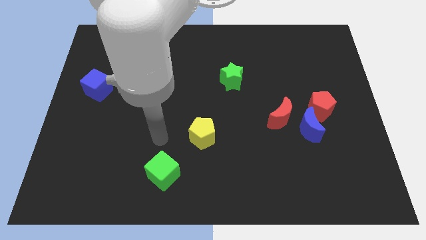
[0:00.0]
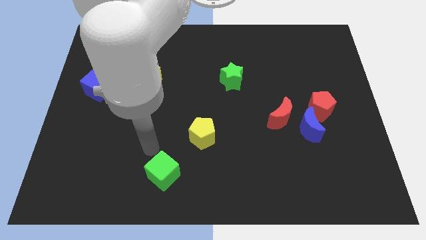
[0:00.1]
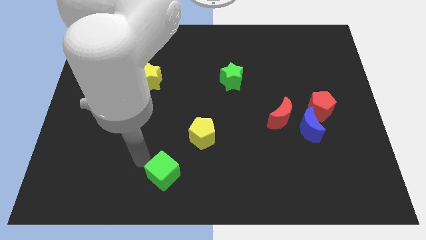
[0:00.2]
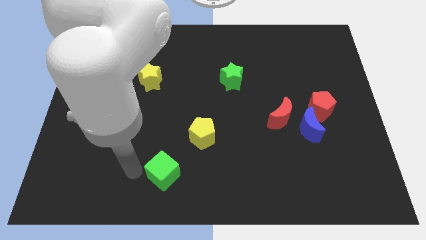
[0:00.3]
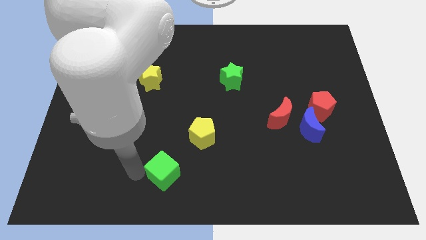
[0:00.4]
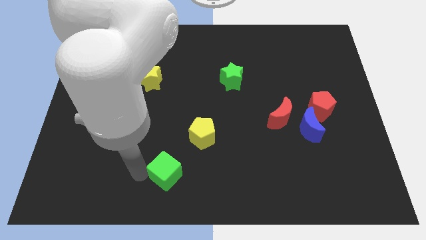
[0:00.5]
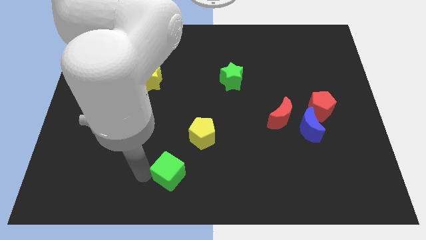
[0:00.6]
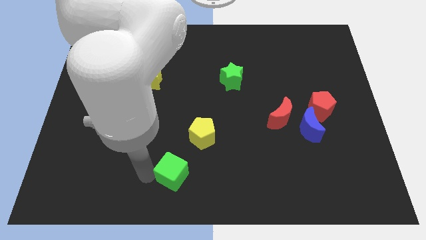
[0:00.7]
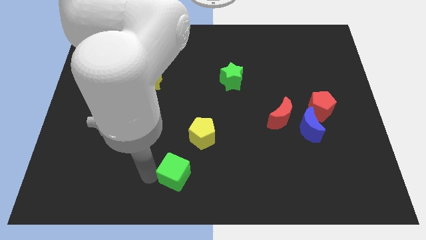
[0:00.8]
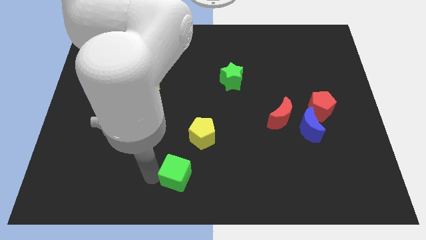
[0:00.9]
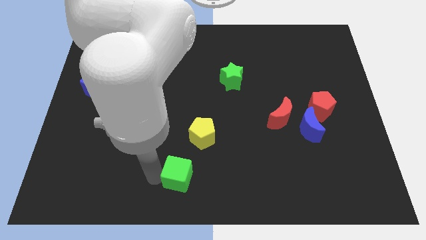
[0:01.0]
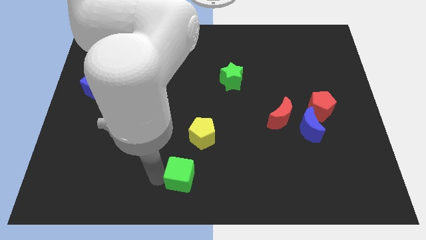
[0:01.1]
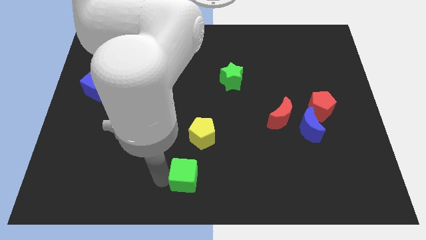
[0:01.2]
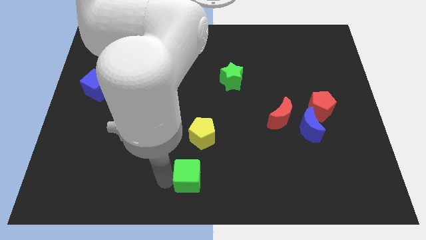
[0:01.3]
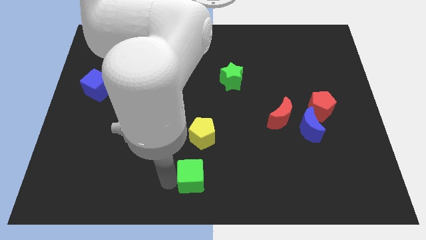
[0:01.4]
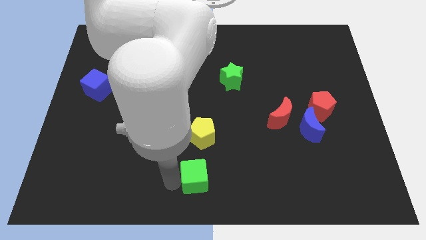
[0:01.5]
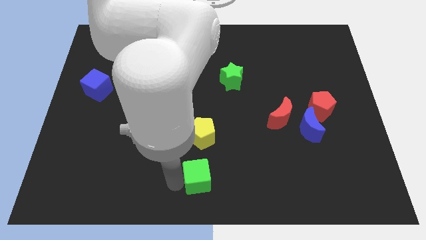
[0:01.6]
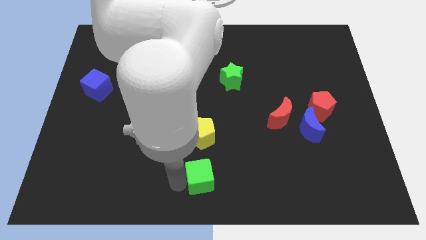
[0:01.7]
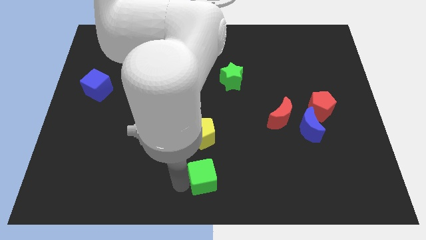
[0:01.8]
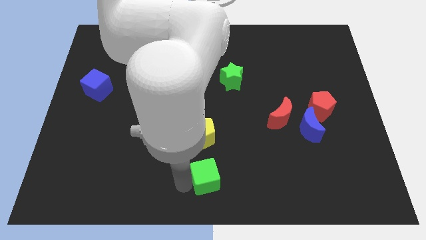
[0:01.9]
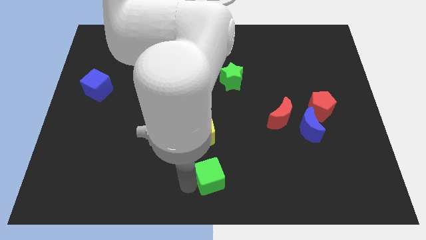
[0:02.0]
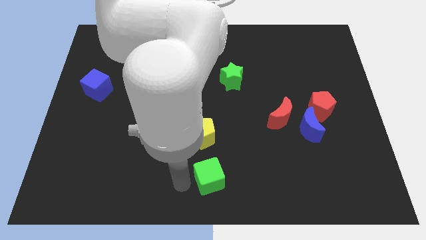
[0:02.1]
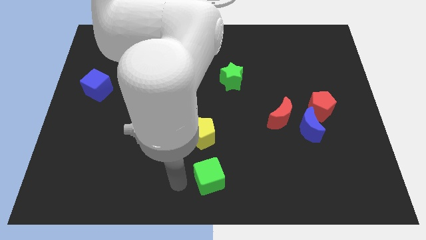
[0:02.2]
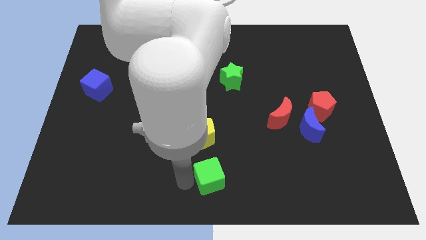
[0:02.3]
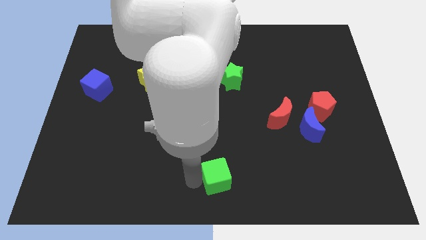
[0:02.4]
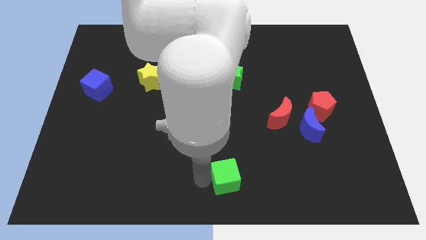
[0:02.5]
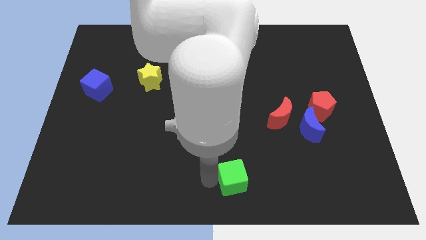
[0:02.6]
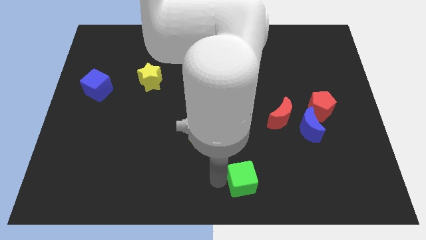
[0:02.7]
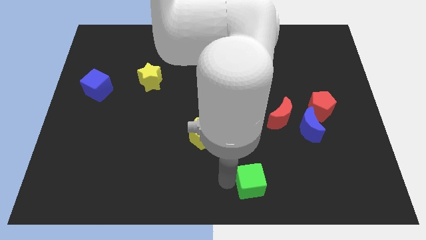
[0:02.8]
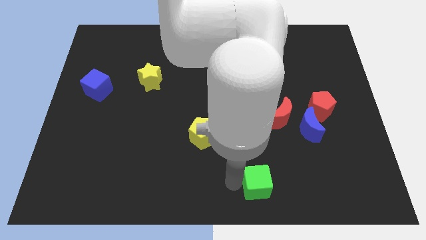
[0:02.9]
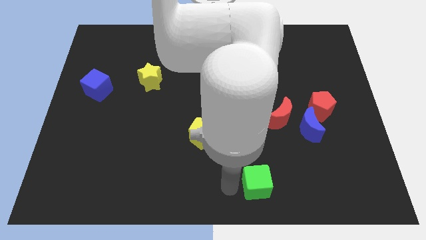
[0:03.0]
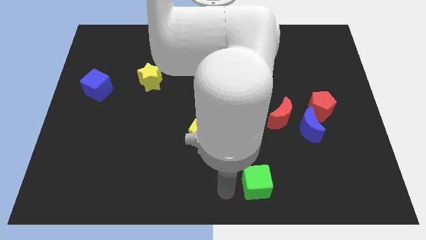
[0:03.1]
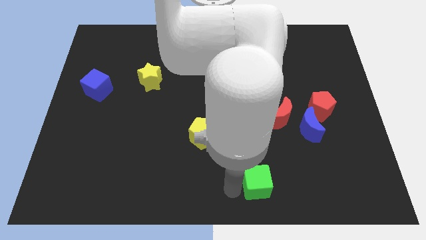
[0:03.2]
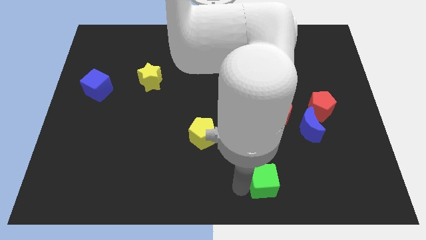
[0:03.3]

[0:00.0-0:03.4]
move the green cube to the right

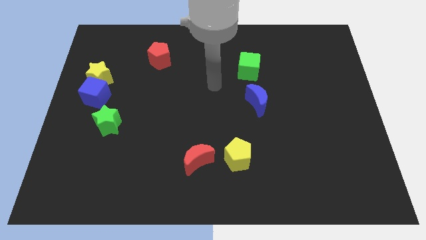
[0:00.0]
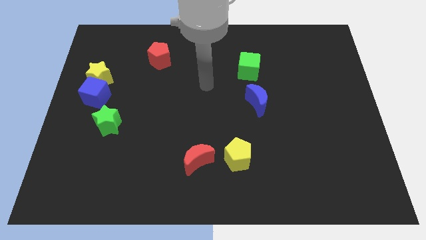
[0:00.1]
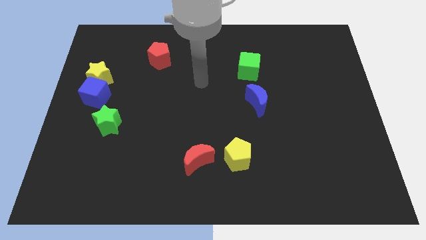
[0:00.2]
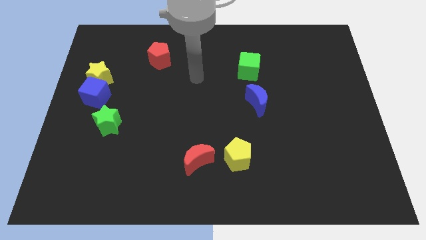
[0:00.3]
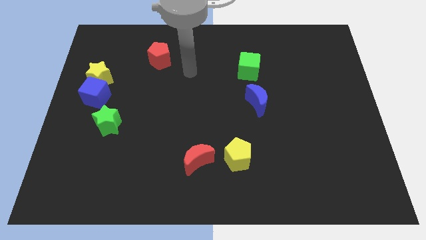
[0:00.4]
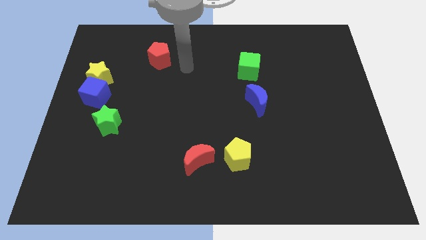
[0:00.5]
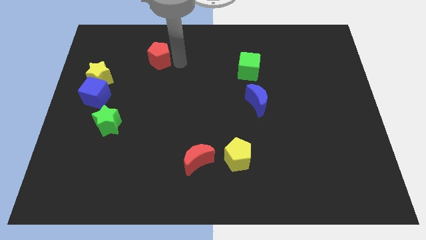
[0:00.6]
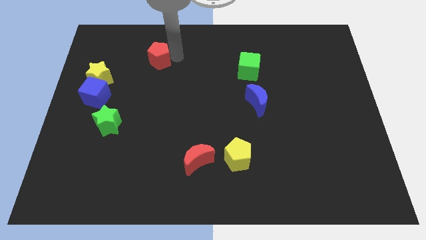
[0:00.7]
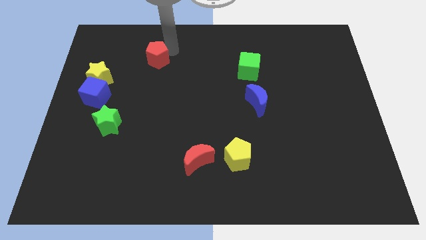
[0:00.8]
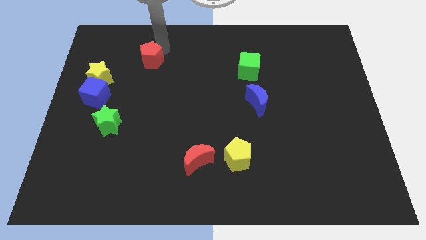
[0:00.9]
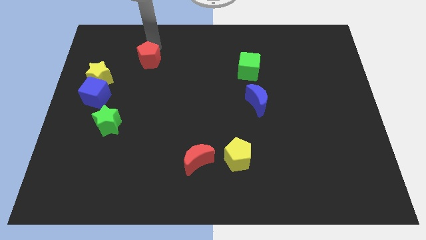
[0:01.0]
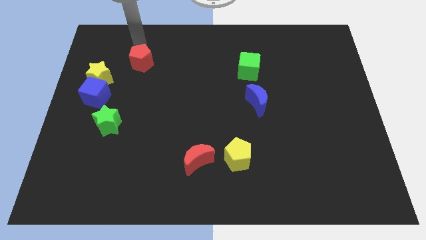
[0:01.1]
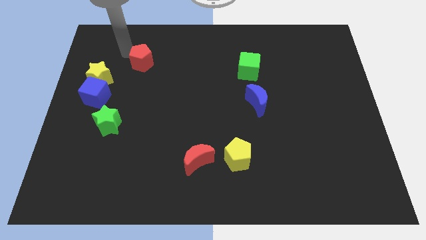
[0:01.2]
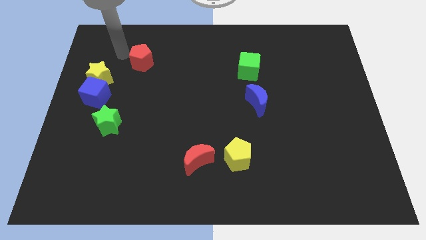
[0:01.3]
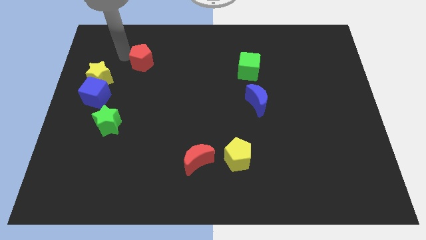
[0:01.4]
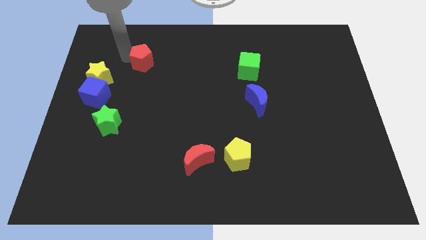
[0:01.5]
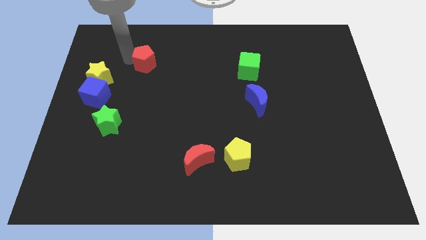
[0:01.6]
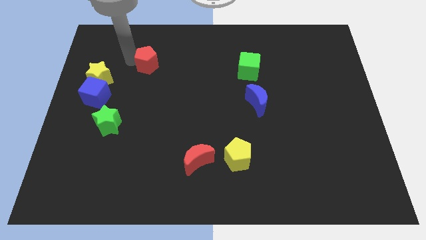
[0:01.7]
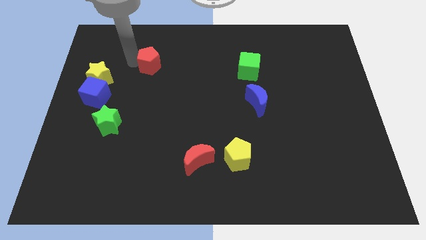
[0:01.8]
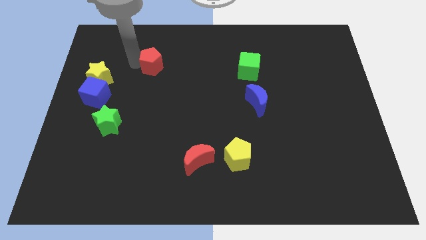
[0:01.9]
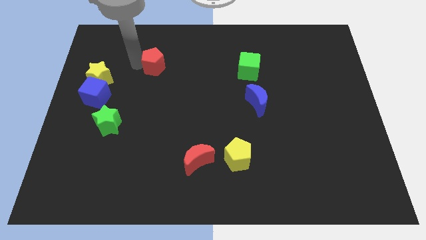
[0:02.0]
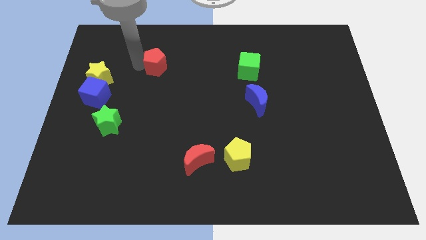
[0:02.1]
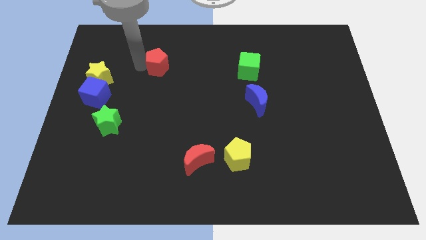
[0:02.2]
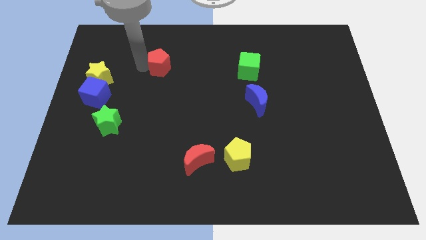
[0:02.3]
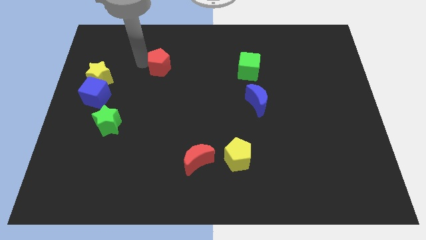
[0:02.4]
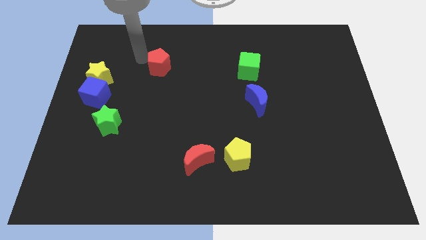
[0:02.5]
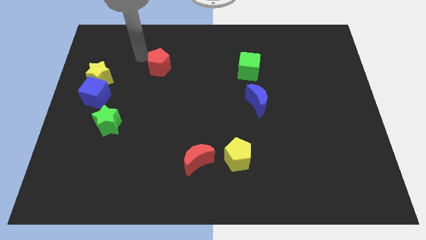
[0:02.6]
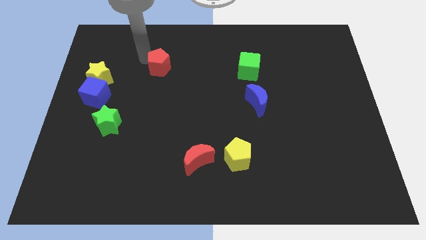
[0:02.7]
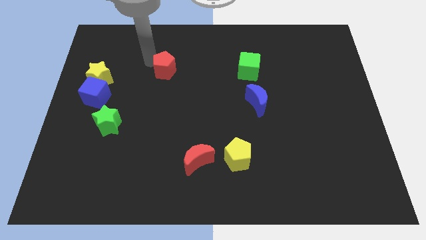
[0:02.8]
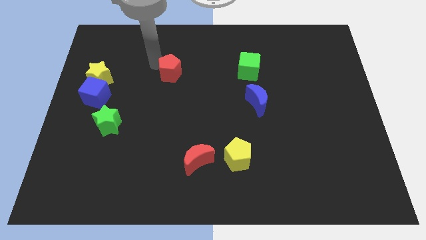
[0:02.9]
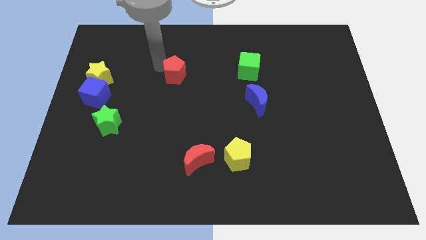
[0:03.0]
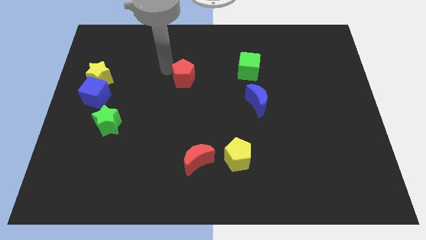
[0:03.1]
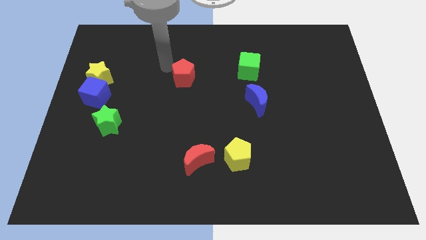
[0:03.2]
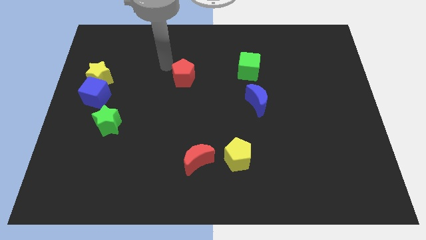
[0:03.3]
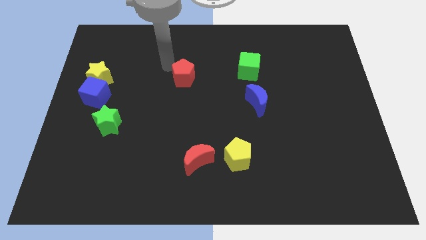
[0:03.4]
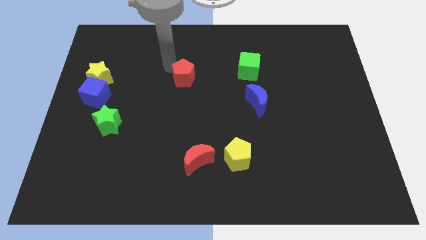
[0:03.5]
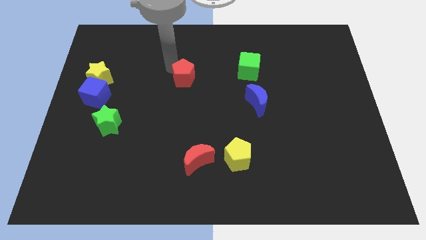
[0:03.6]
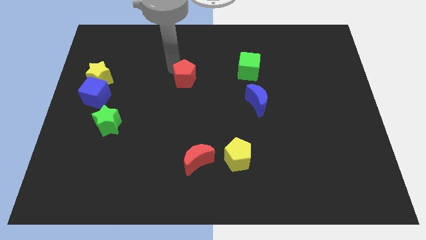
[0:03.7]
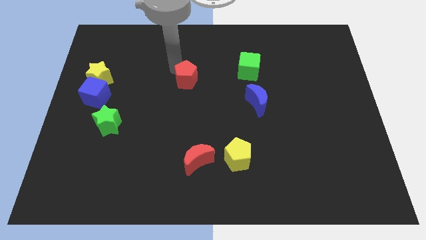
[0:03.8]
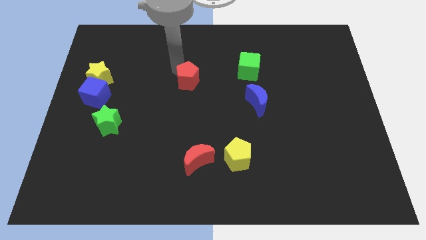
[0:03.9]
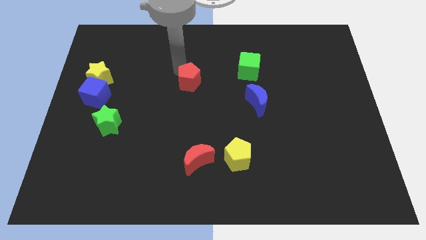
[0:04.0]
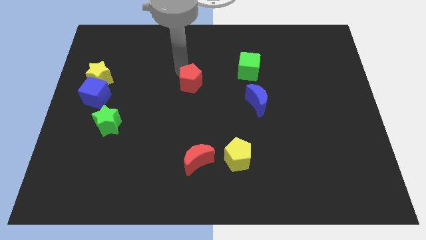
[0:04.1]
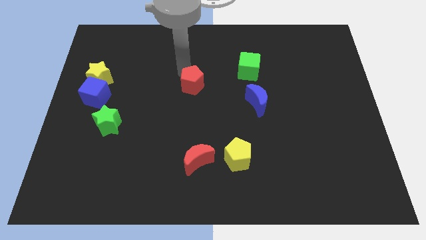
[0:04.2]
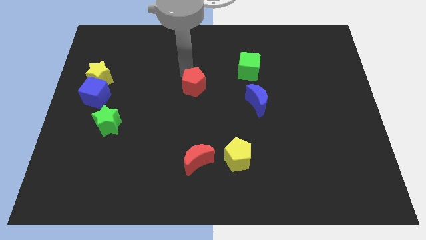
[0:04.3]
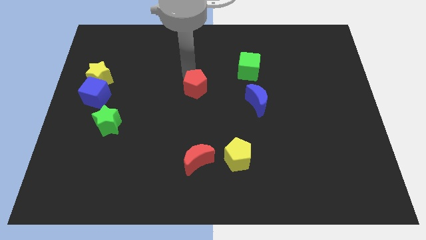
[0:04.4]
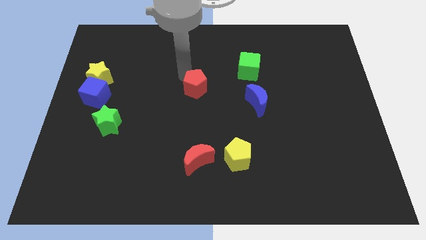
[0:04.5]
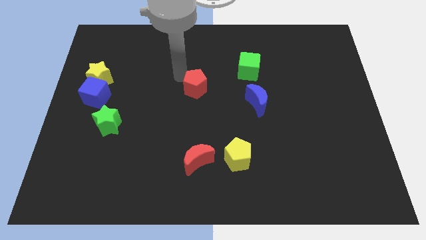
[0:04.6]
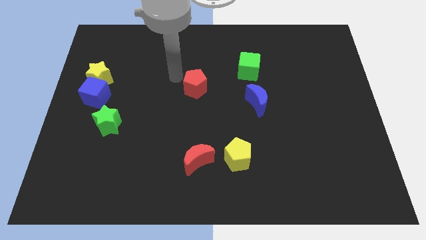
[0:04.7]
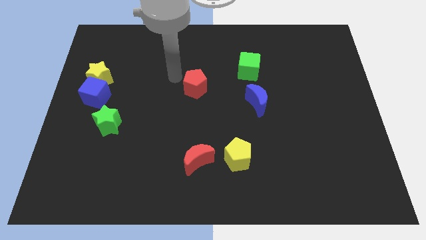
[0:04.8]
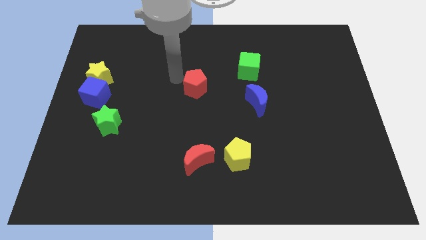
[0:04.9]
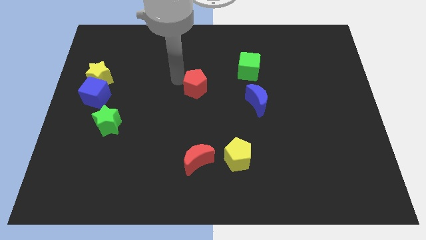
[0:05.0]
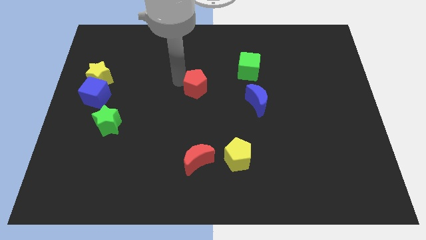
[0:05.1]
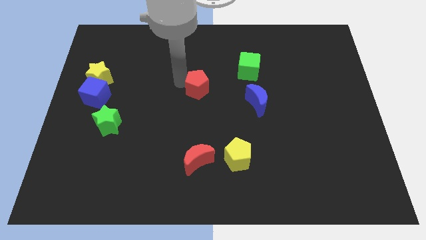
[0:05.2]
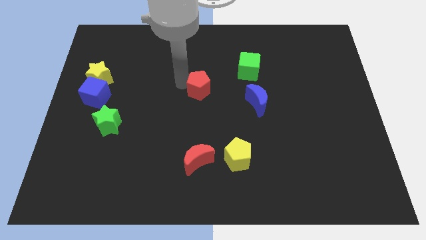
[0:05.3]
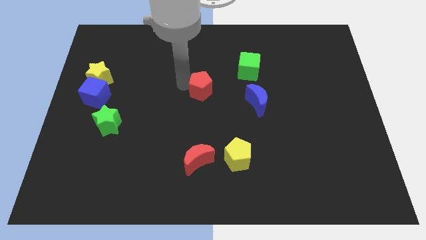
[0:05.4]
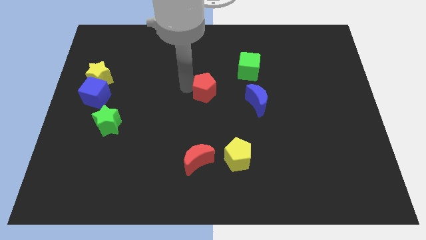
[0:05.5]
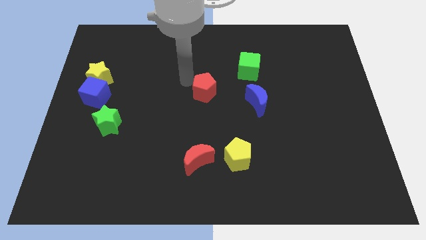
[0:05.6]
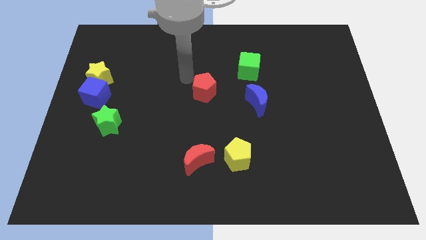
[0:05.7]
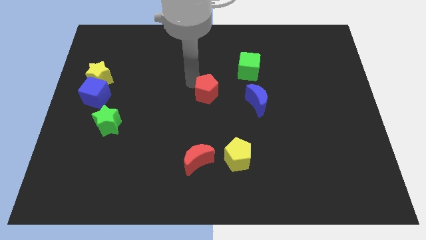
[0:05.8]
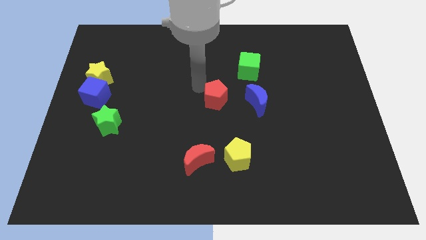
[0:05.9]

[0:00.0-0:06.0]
slide the red pentagon downwards and then to the right
